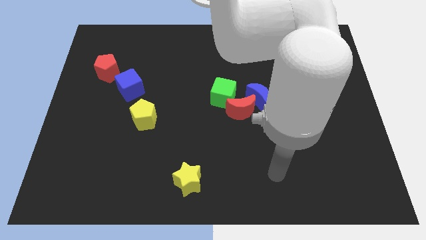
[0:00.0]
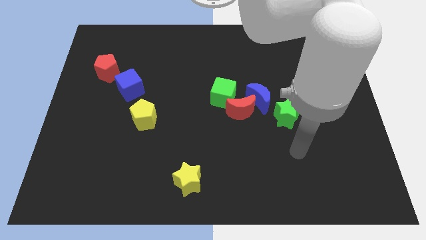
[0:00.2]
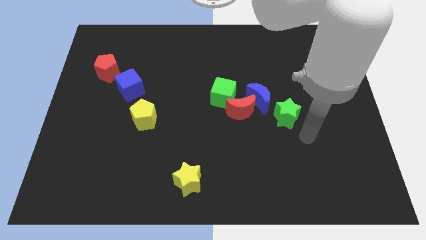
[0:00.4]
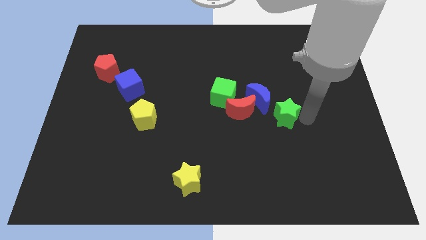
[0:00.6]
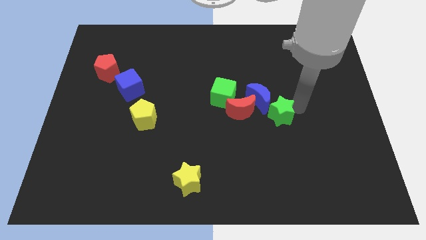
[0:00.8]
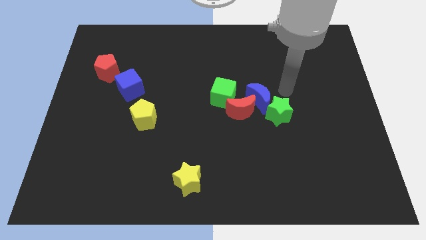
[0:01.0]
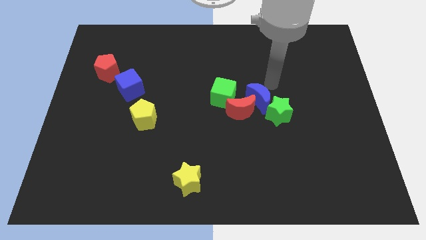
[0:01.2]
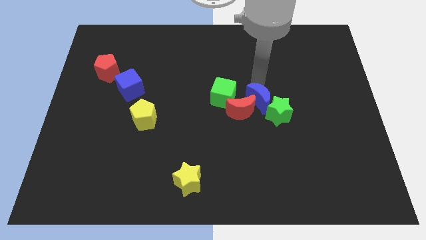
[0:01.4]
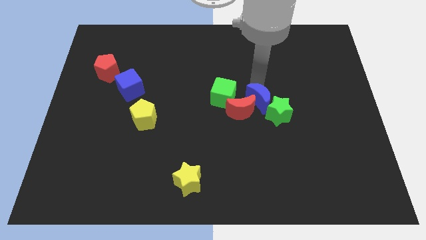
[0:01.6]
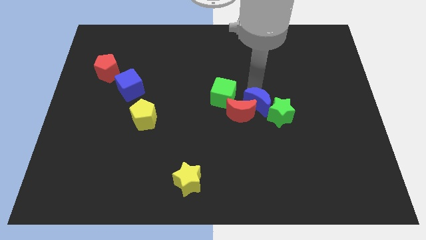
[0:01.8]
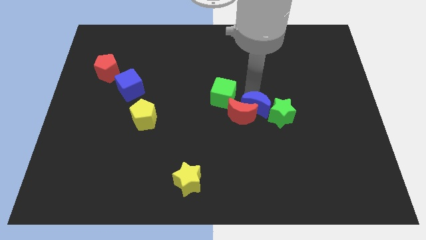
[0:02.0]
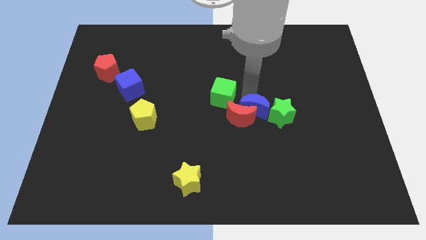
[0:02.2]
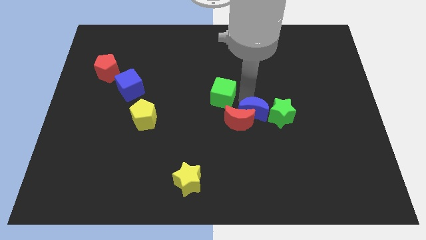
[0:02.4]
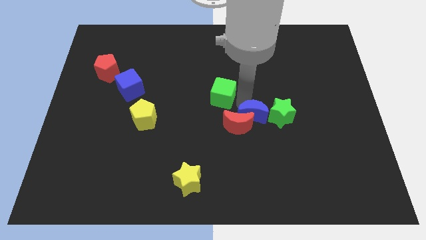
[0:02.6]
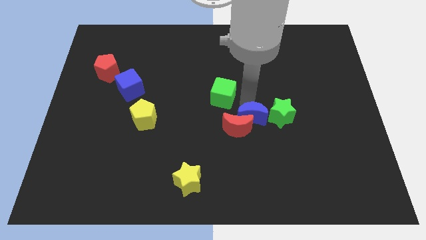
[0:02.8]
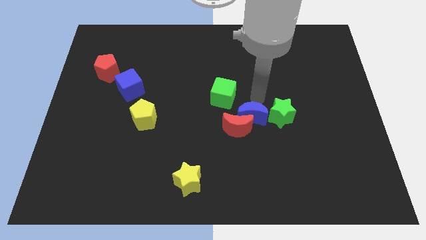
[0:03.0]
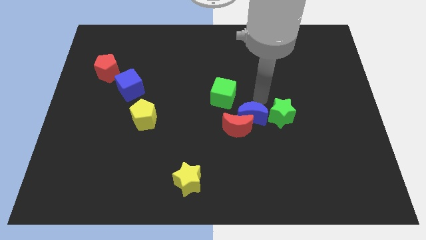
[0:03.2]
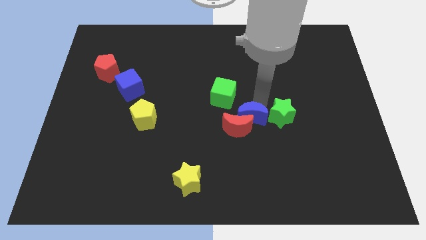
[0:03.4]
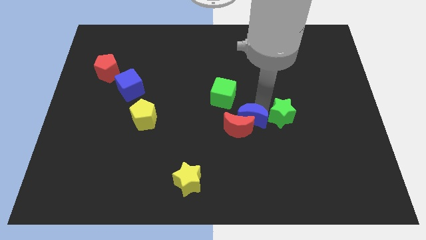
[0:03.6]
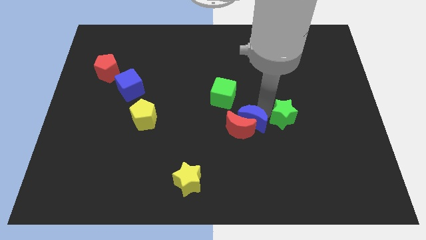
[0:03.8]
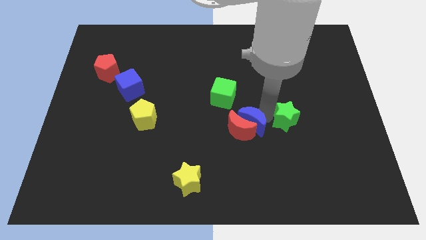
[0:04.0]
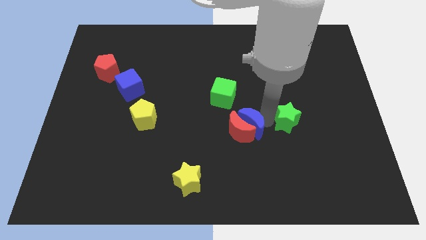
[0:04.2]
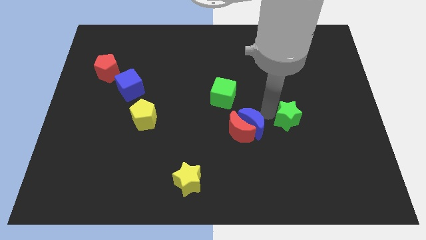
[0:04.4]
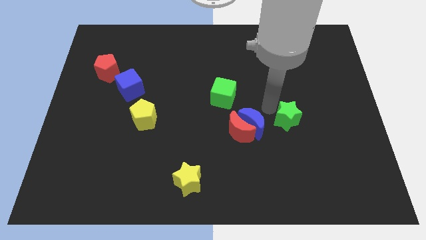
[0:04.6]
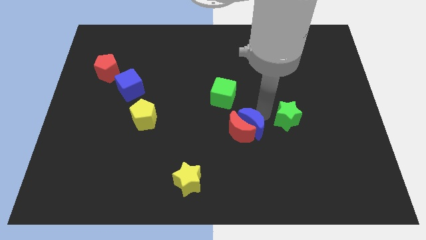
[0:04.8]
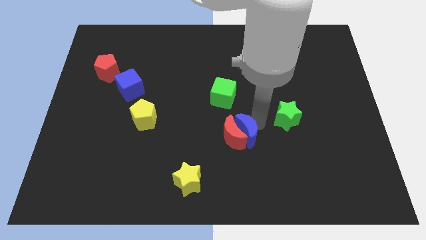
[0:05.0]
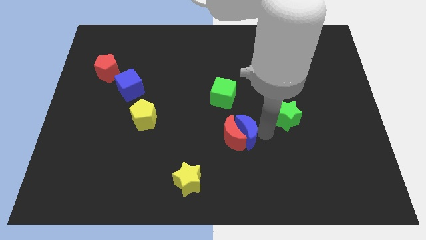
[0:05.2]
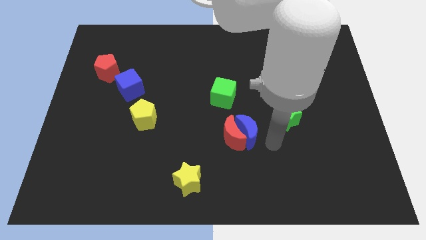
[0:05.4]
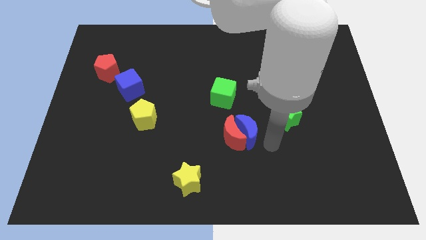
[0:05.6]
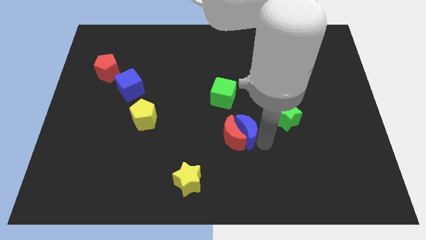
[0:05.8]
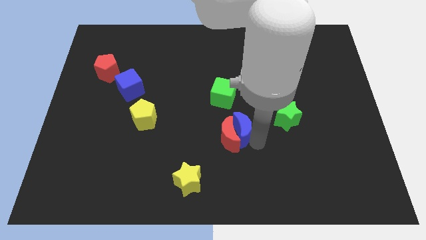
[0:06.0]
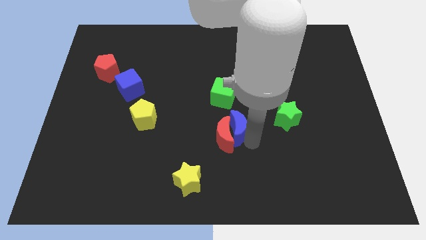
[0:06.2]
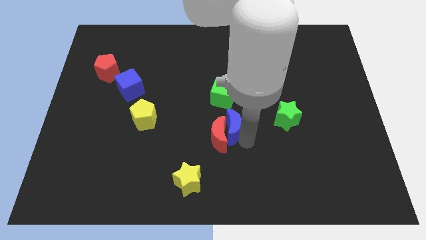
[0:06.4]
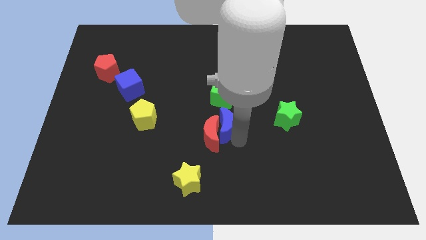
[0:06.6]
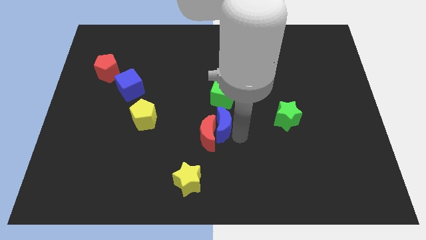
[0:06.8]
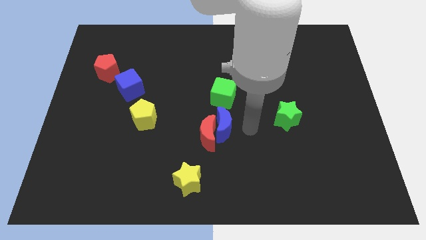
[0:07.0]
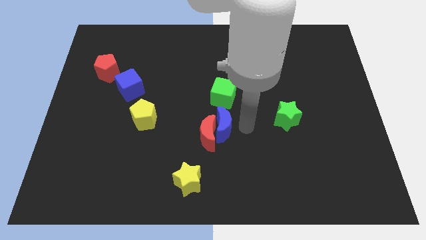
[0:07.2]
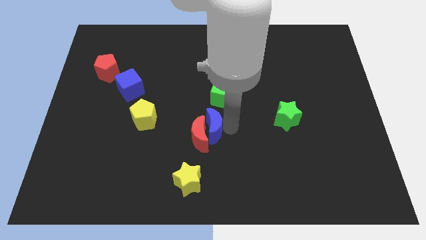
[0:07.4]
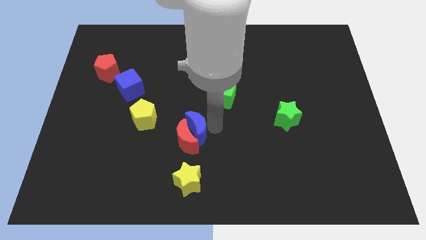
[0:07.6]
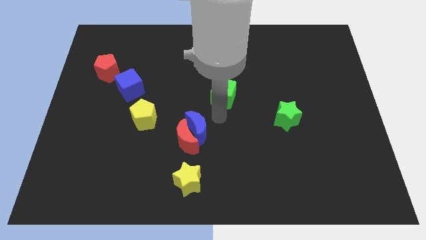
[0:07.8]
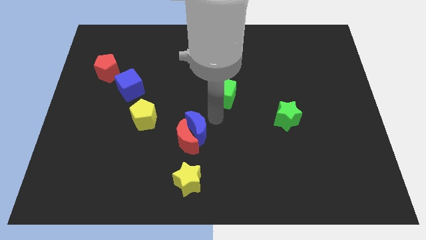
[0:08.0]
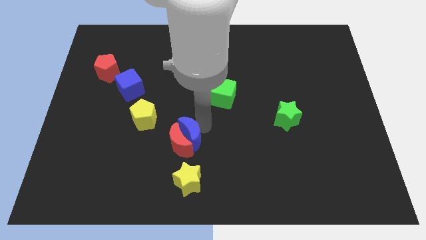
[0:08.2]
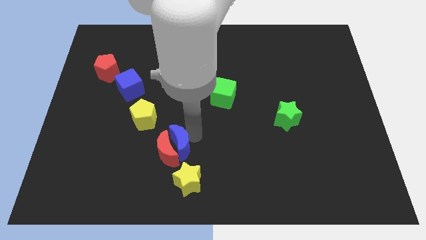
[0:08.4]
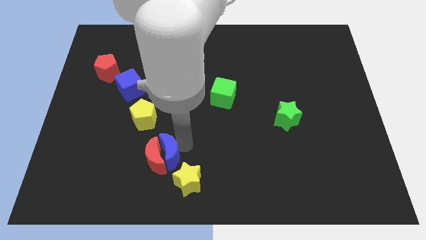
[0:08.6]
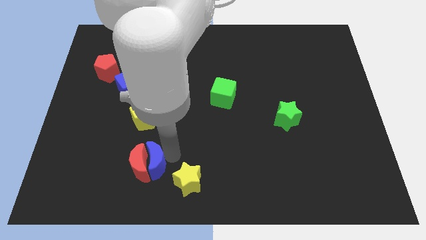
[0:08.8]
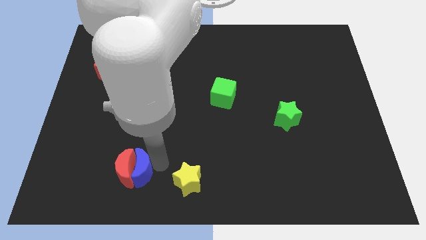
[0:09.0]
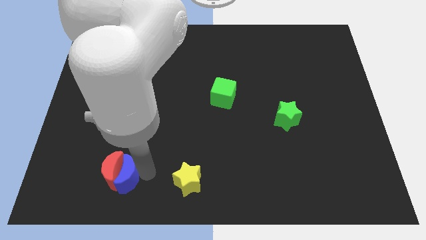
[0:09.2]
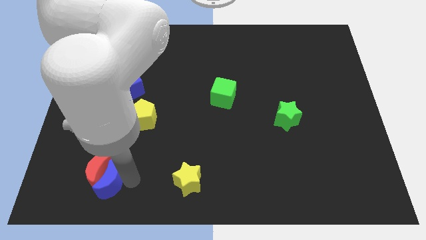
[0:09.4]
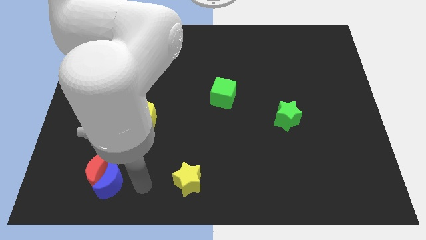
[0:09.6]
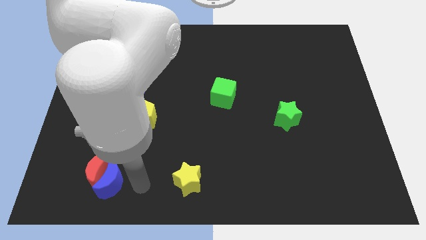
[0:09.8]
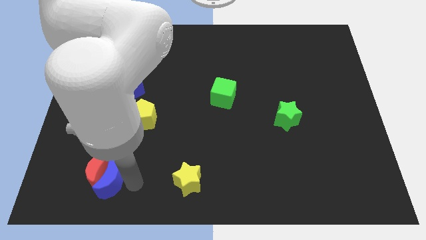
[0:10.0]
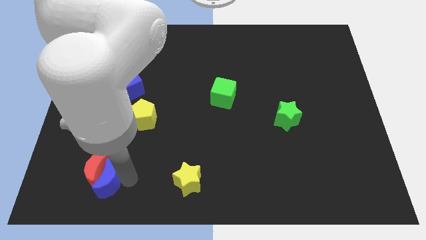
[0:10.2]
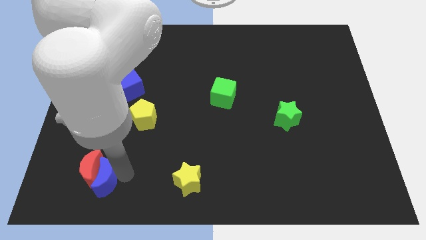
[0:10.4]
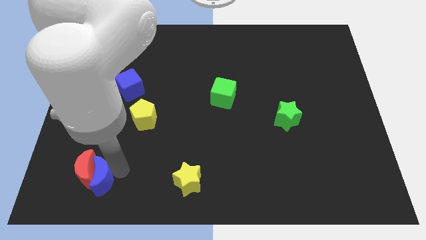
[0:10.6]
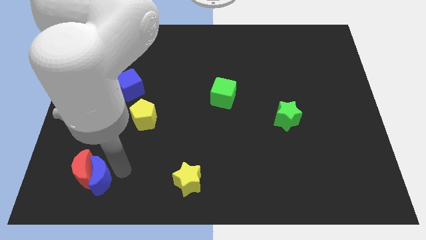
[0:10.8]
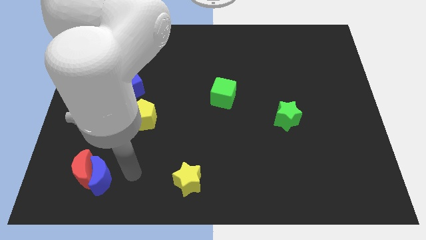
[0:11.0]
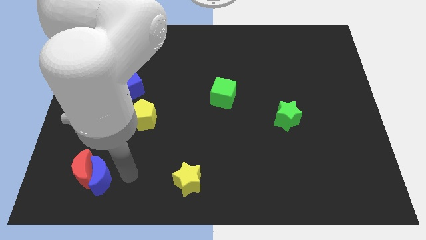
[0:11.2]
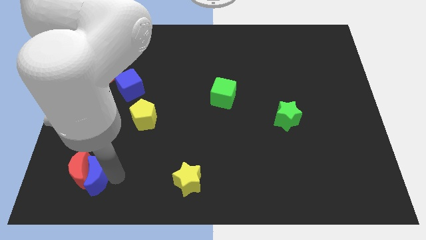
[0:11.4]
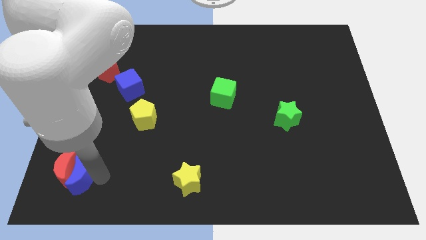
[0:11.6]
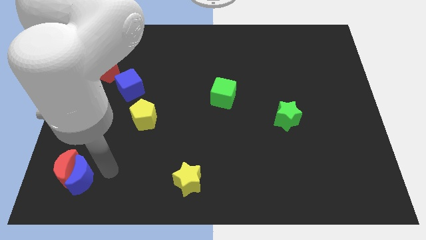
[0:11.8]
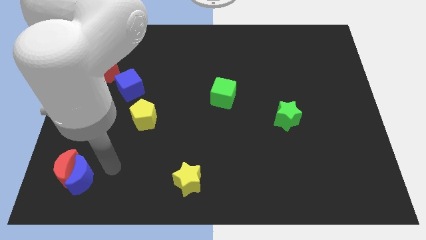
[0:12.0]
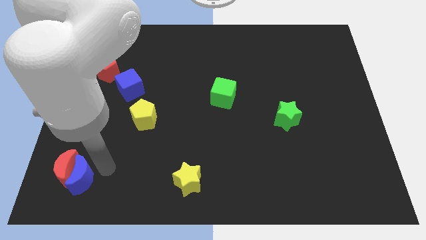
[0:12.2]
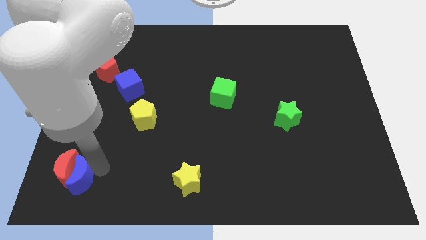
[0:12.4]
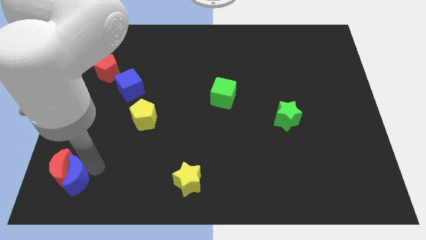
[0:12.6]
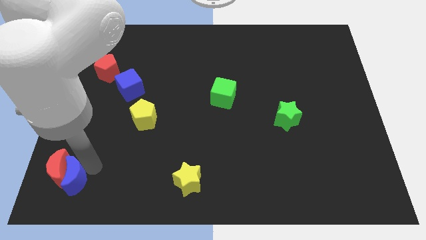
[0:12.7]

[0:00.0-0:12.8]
move the blue moon to the bottom left of the board

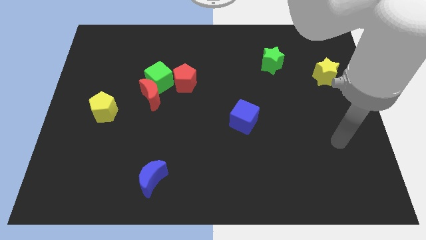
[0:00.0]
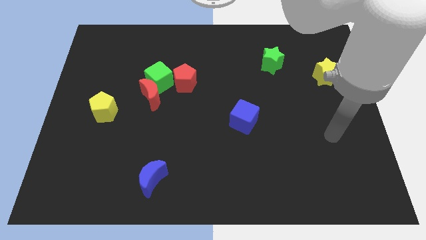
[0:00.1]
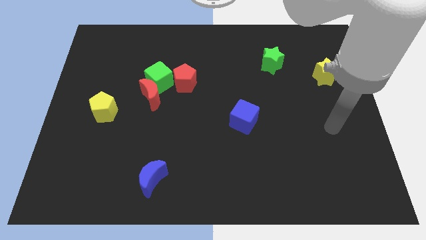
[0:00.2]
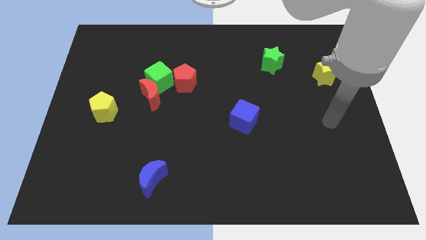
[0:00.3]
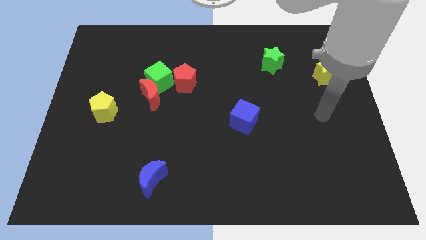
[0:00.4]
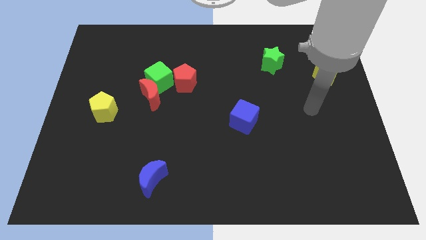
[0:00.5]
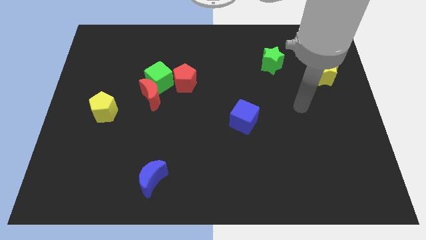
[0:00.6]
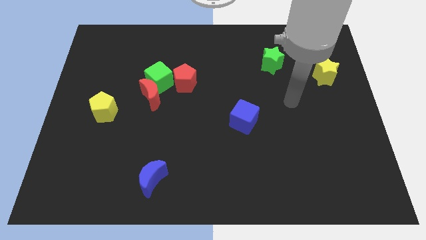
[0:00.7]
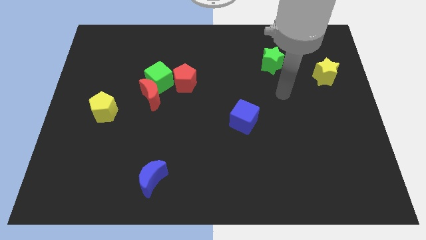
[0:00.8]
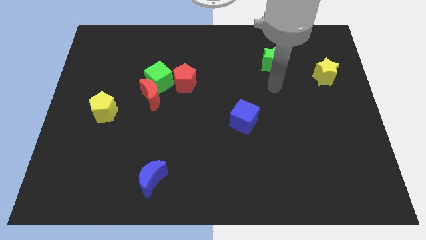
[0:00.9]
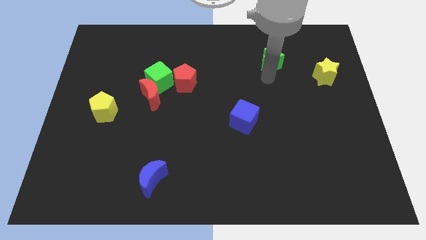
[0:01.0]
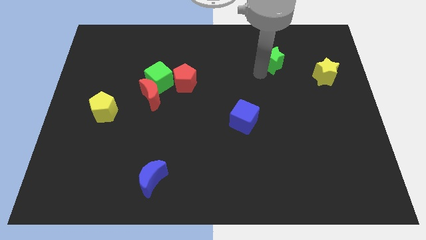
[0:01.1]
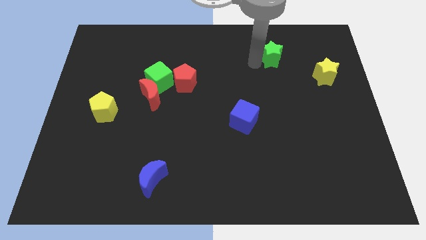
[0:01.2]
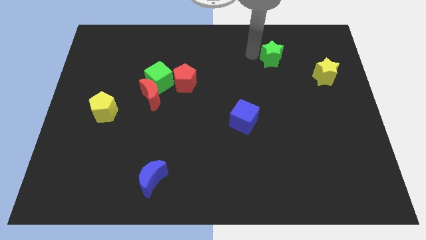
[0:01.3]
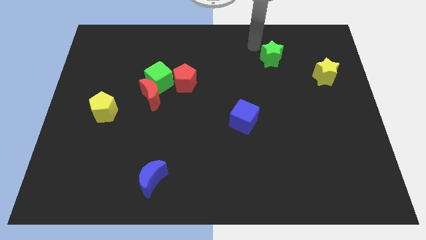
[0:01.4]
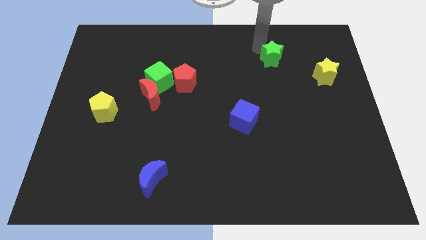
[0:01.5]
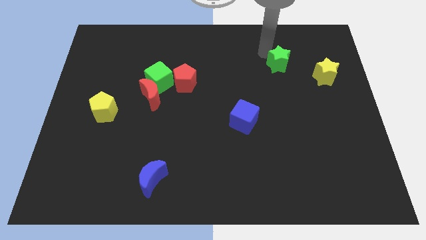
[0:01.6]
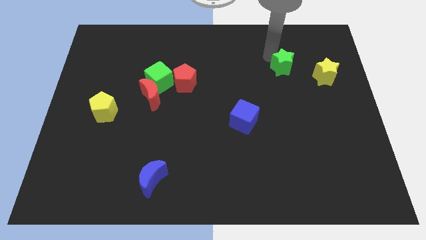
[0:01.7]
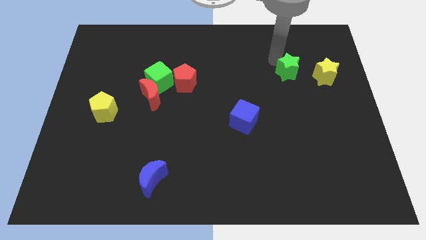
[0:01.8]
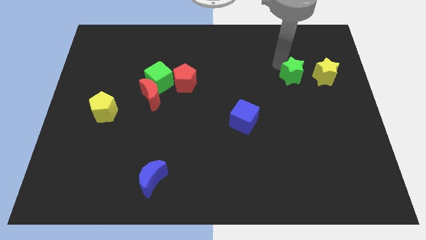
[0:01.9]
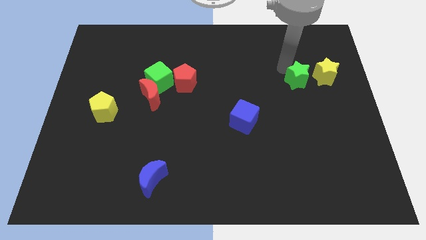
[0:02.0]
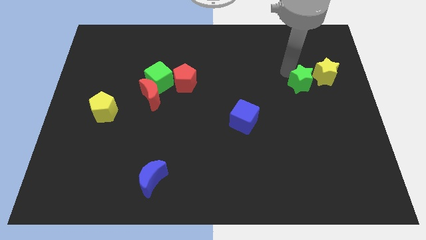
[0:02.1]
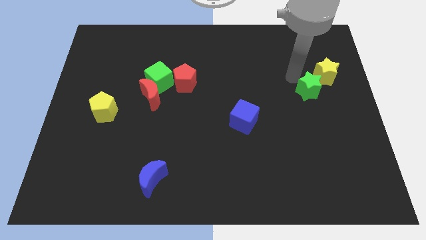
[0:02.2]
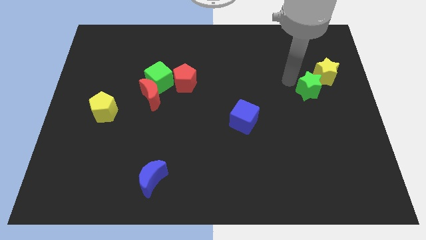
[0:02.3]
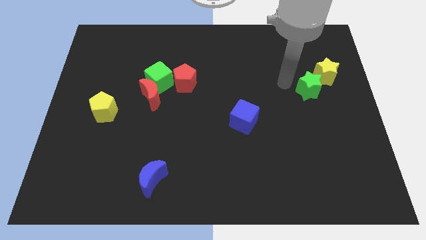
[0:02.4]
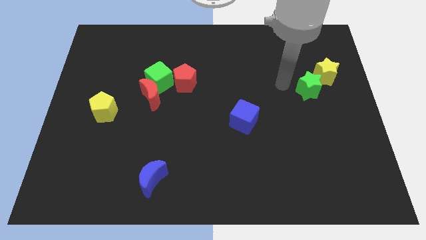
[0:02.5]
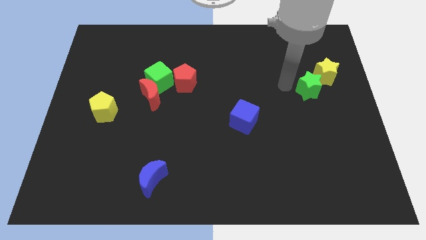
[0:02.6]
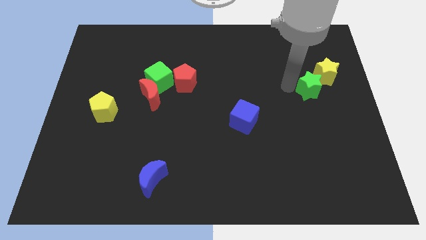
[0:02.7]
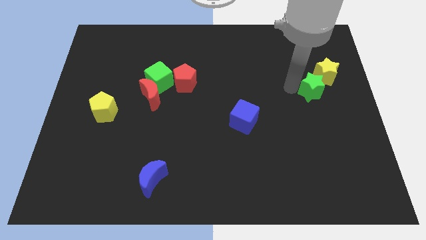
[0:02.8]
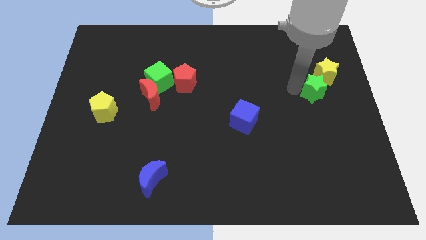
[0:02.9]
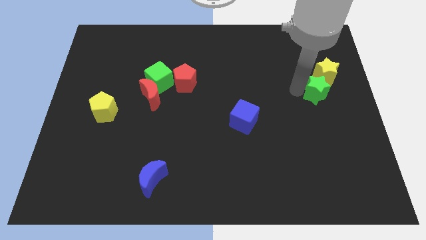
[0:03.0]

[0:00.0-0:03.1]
slide the green star to the center right
